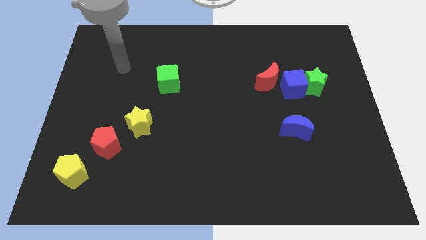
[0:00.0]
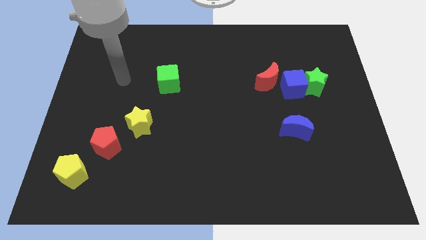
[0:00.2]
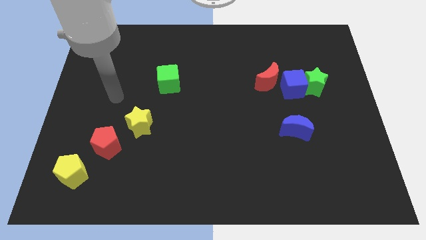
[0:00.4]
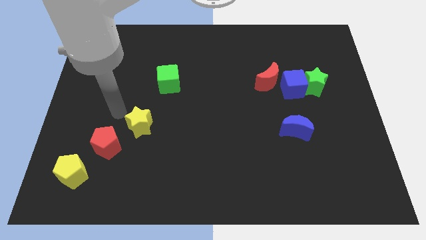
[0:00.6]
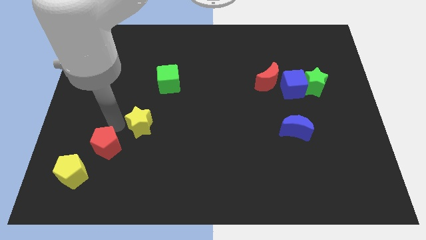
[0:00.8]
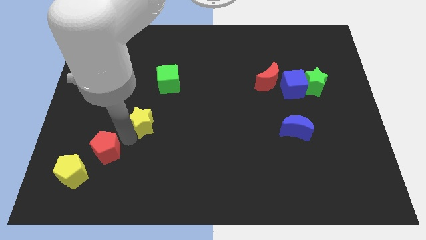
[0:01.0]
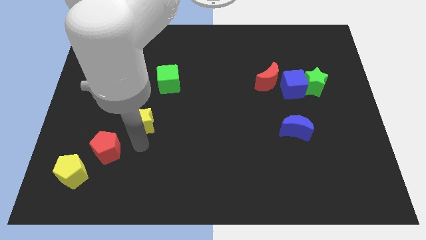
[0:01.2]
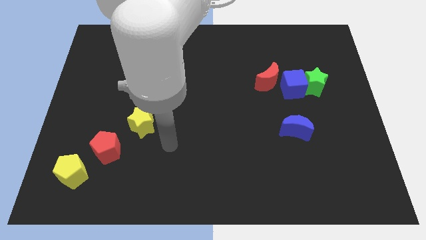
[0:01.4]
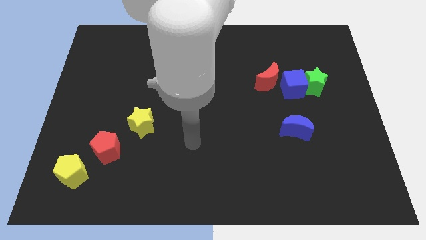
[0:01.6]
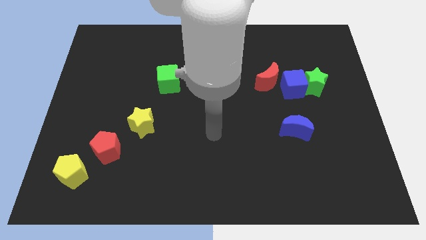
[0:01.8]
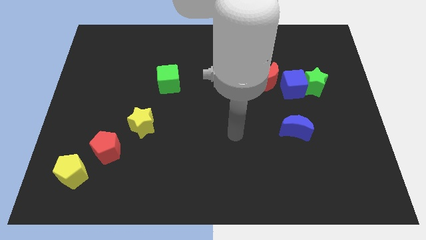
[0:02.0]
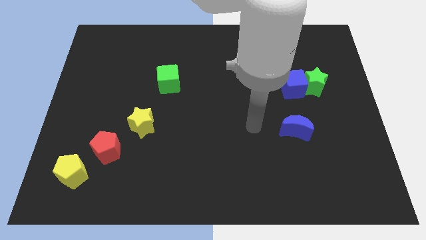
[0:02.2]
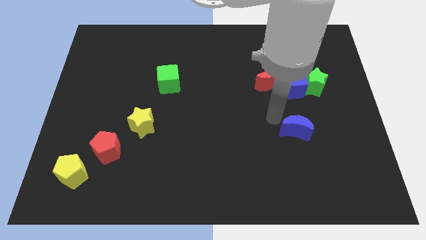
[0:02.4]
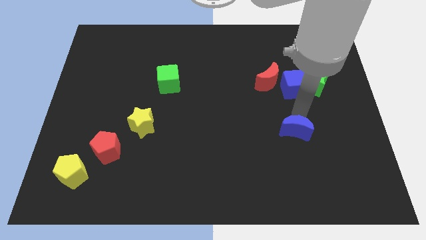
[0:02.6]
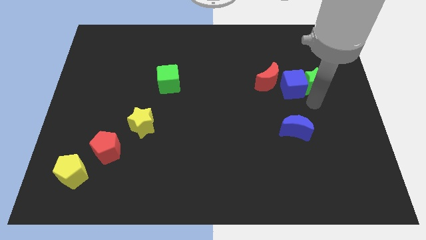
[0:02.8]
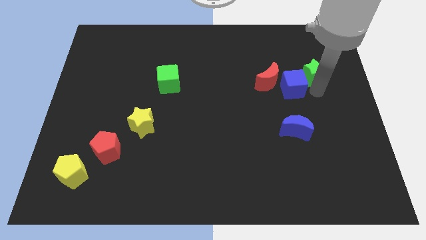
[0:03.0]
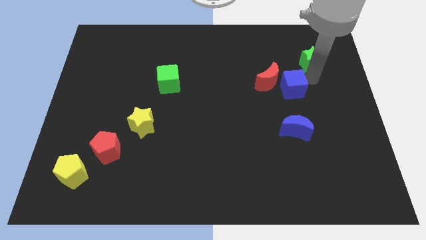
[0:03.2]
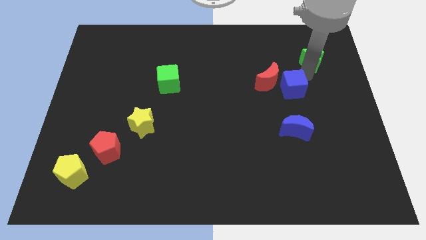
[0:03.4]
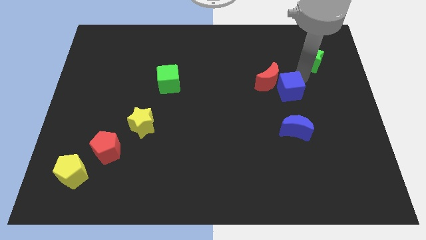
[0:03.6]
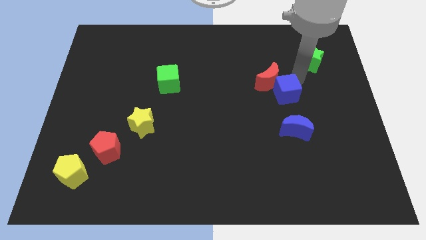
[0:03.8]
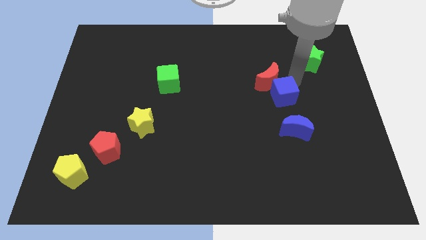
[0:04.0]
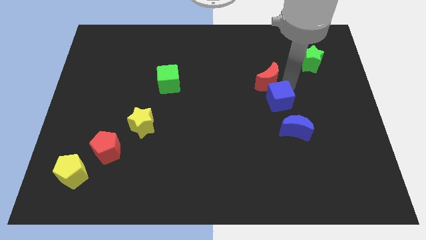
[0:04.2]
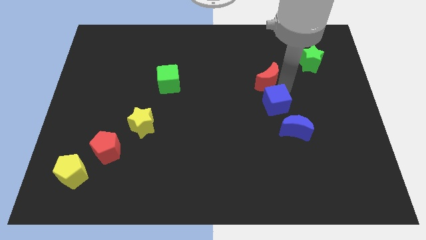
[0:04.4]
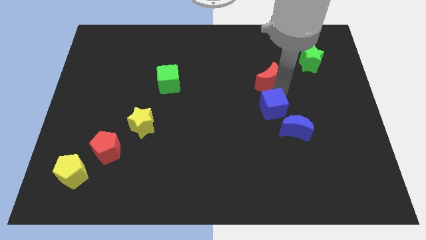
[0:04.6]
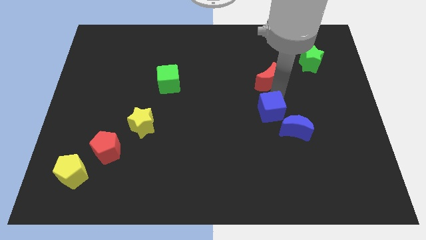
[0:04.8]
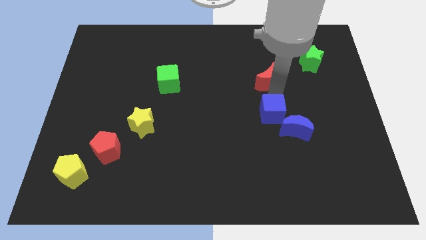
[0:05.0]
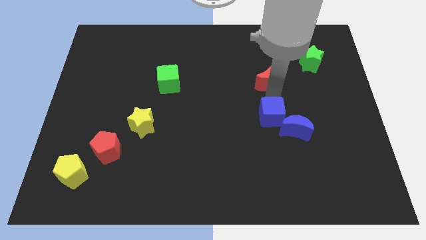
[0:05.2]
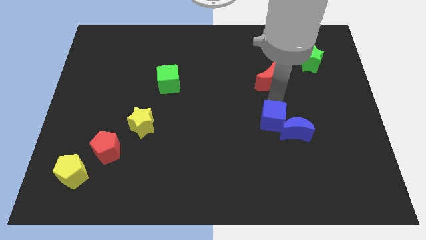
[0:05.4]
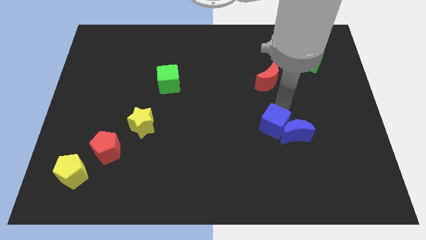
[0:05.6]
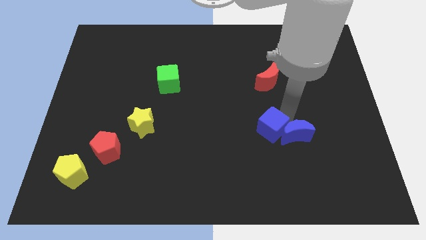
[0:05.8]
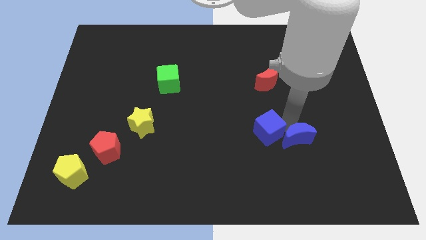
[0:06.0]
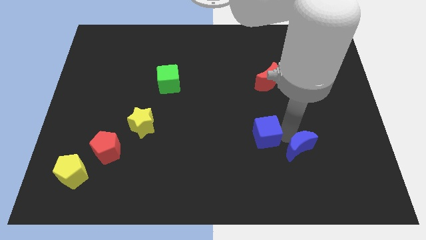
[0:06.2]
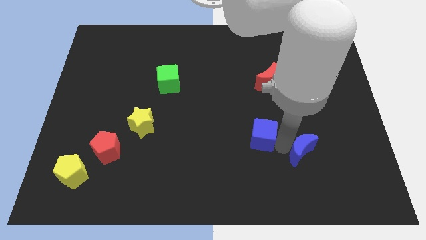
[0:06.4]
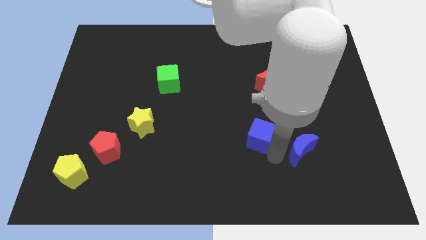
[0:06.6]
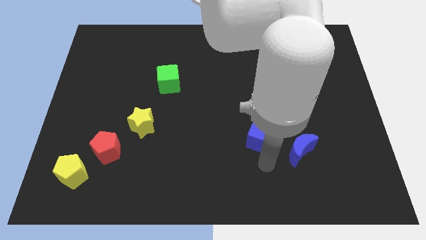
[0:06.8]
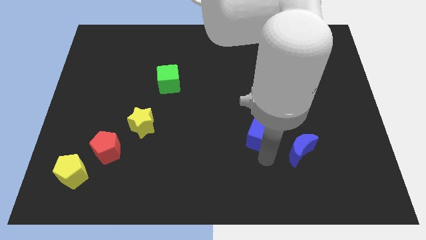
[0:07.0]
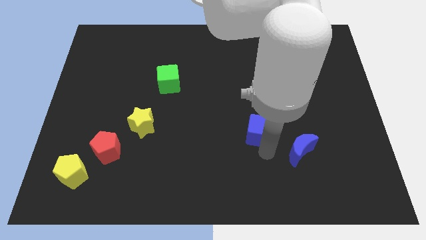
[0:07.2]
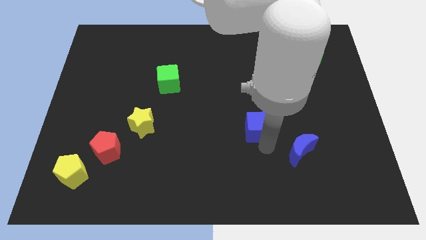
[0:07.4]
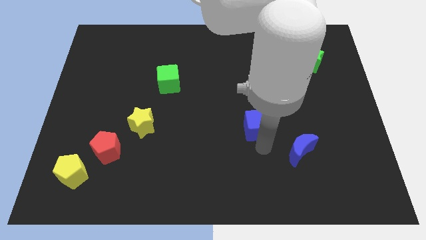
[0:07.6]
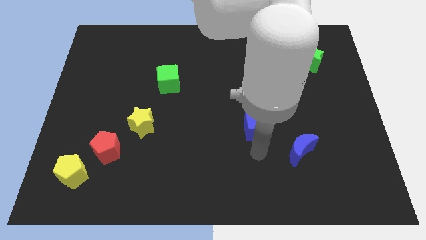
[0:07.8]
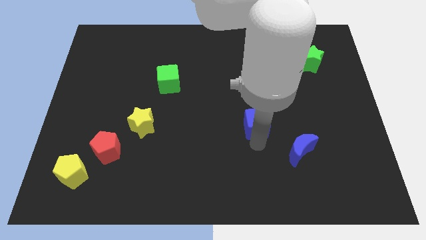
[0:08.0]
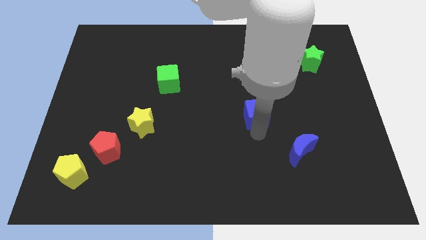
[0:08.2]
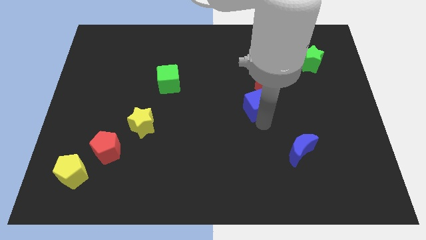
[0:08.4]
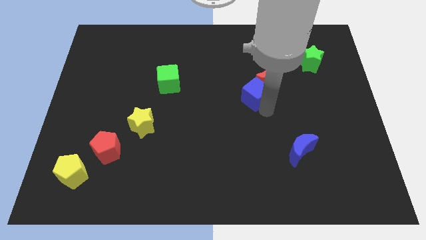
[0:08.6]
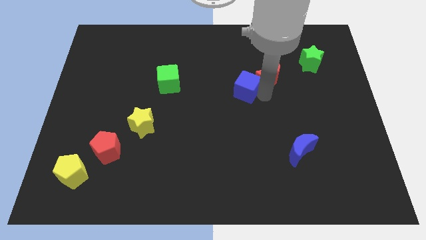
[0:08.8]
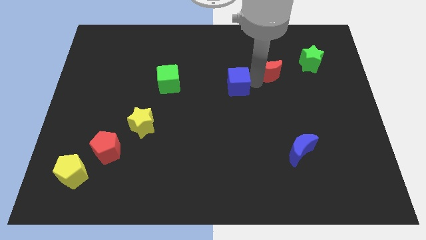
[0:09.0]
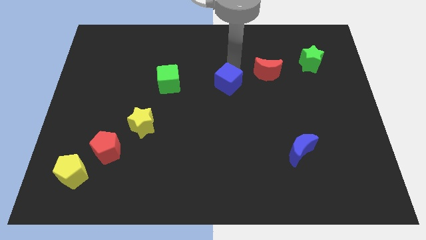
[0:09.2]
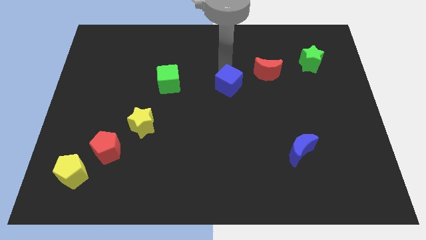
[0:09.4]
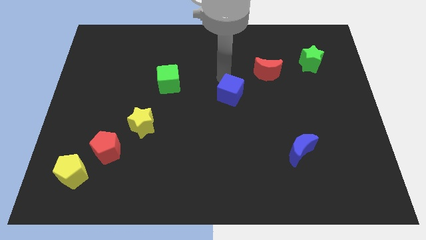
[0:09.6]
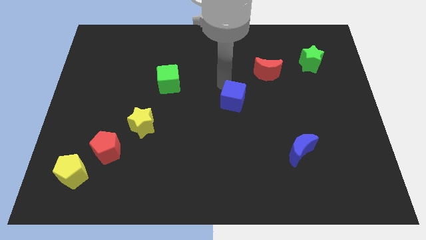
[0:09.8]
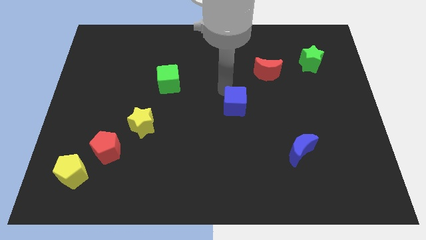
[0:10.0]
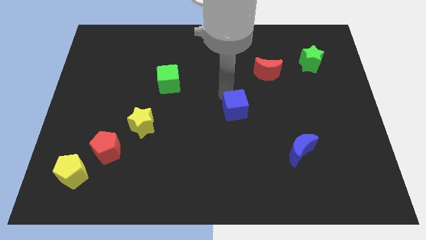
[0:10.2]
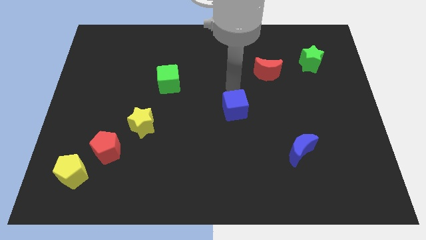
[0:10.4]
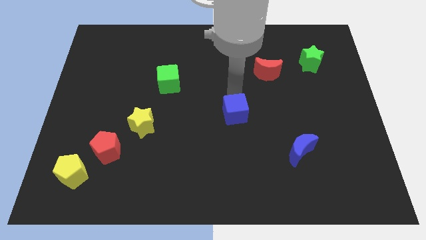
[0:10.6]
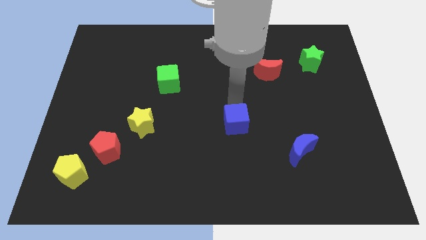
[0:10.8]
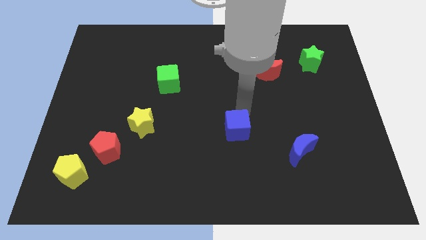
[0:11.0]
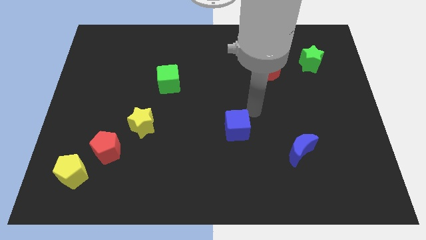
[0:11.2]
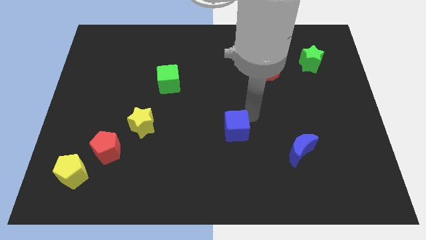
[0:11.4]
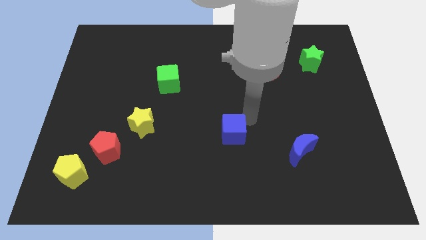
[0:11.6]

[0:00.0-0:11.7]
push the blue cube downwards and to the left diagonally

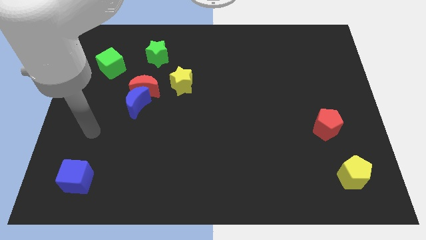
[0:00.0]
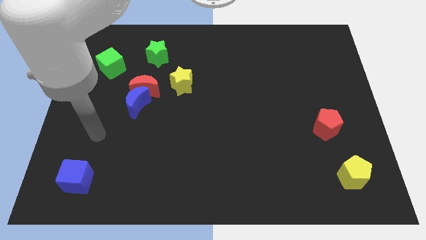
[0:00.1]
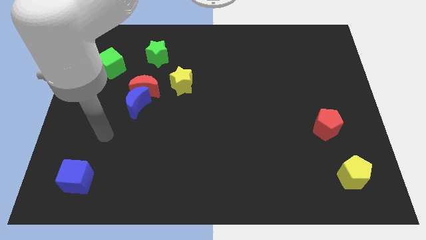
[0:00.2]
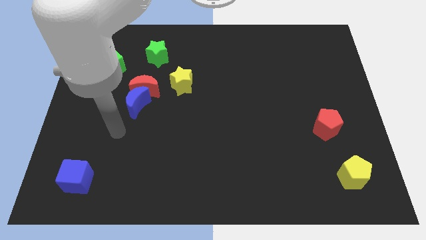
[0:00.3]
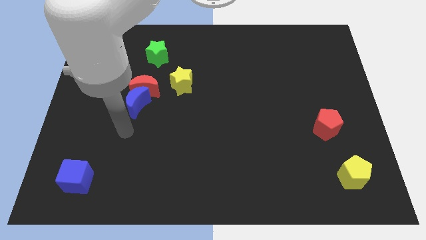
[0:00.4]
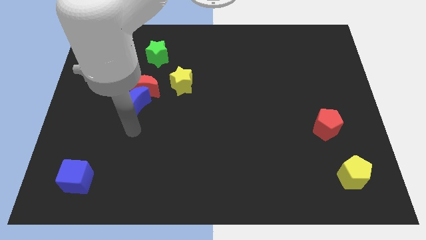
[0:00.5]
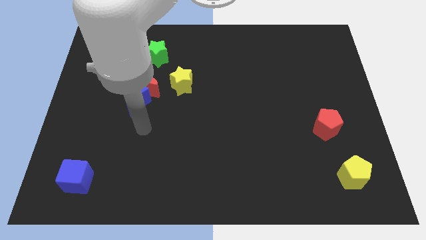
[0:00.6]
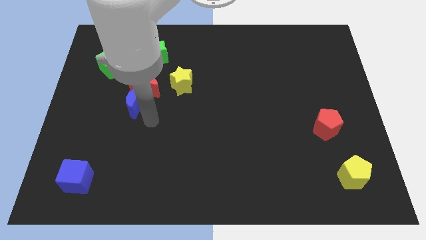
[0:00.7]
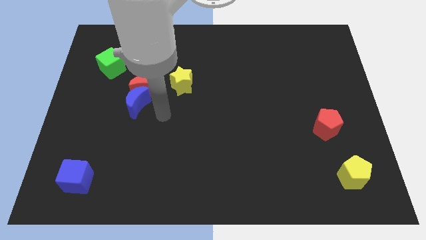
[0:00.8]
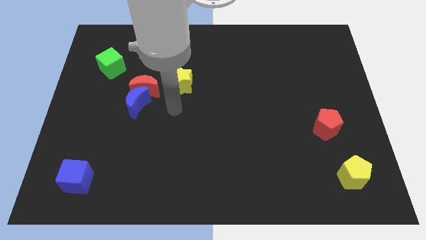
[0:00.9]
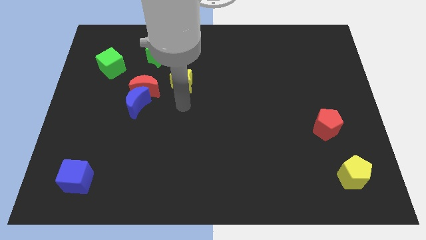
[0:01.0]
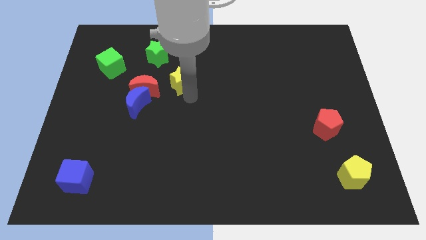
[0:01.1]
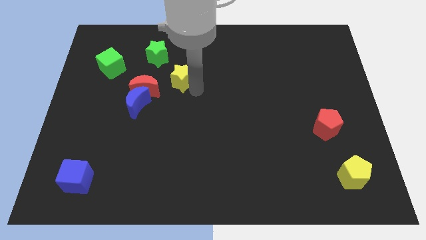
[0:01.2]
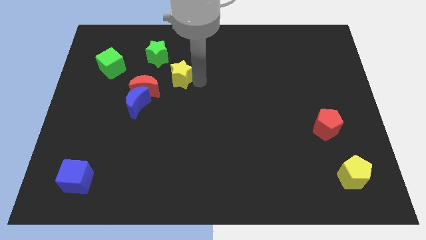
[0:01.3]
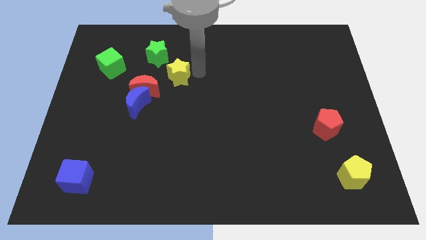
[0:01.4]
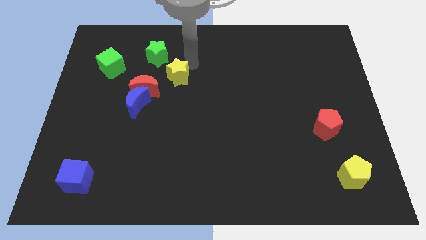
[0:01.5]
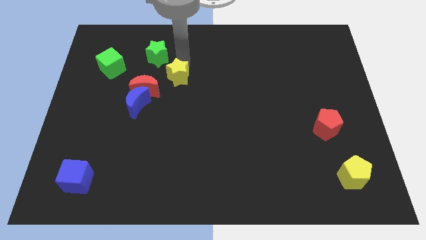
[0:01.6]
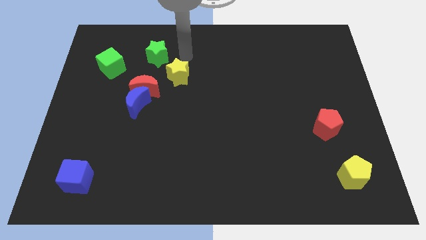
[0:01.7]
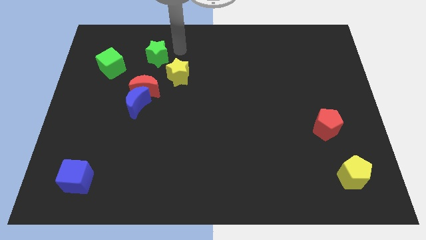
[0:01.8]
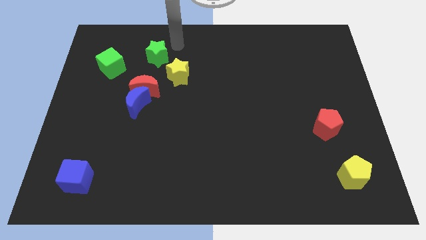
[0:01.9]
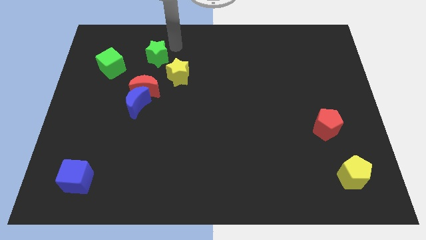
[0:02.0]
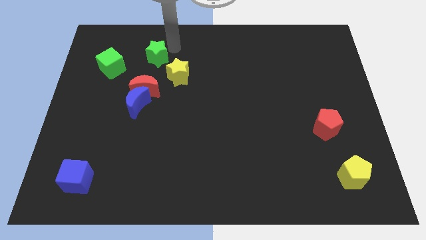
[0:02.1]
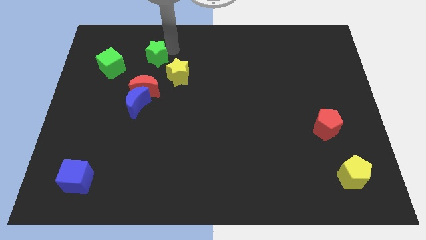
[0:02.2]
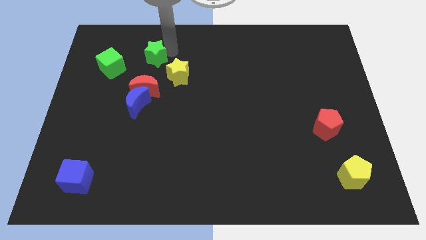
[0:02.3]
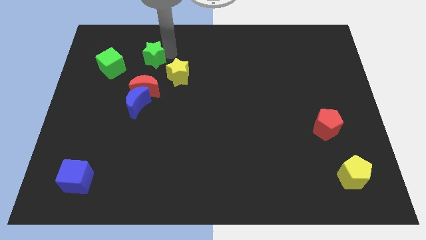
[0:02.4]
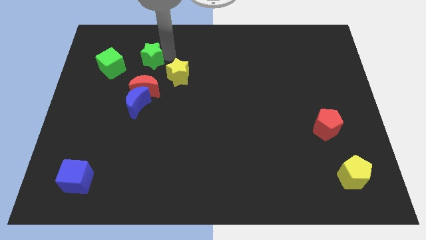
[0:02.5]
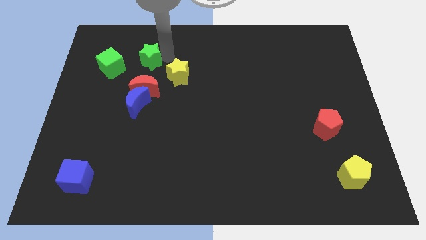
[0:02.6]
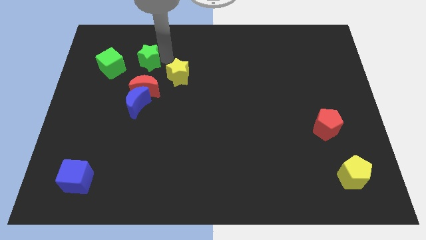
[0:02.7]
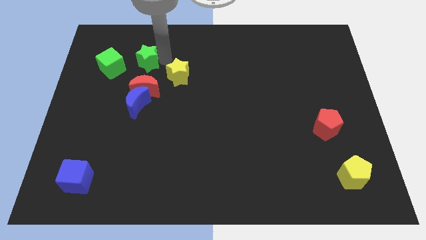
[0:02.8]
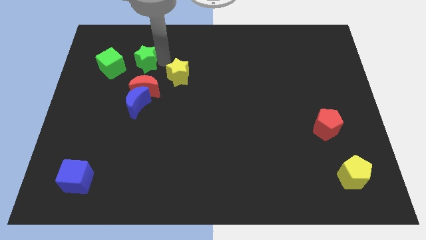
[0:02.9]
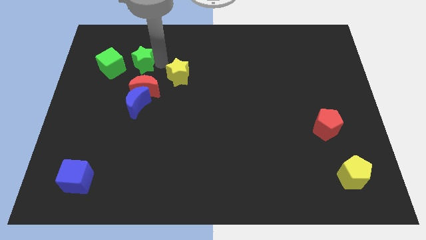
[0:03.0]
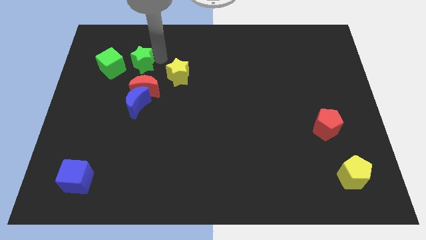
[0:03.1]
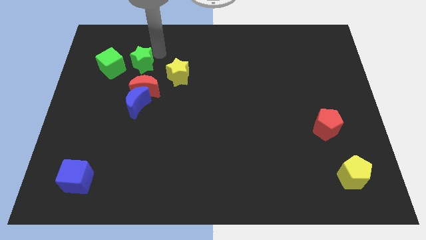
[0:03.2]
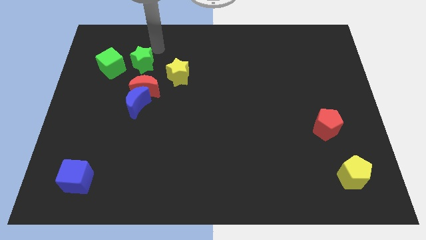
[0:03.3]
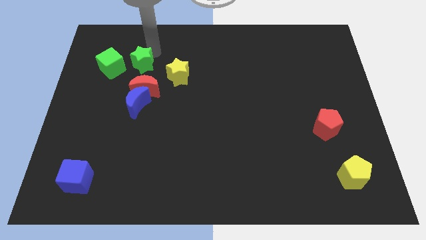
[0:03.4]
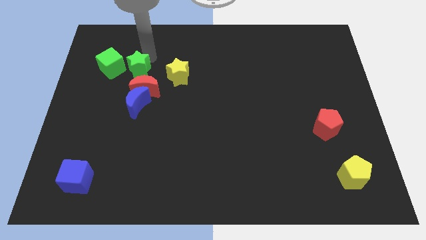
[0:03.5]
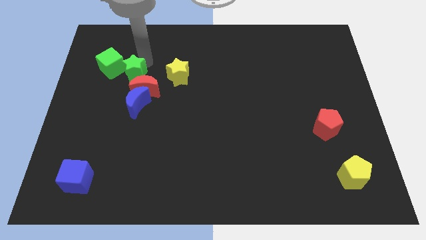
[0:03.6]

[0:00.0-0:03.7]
slightly slide the green star down and to the left diagonally
